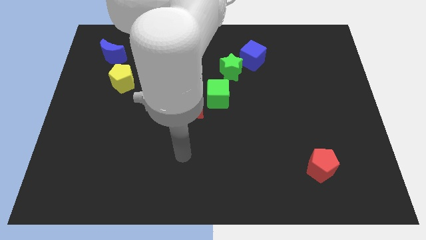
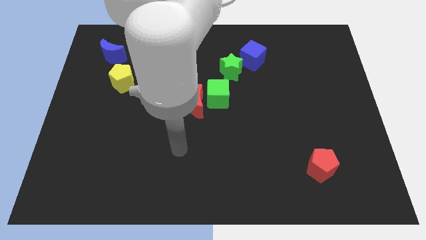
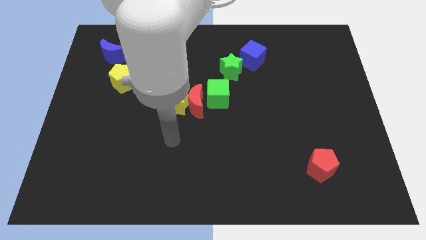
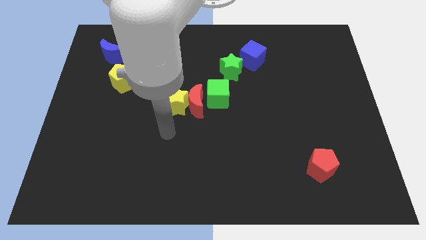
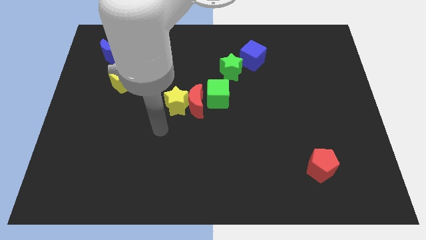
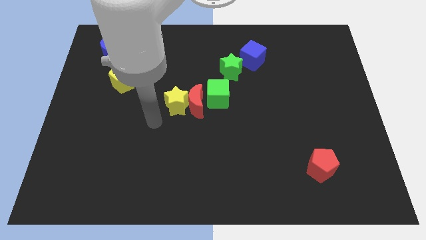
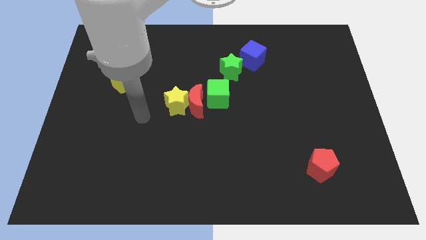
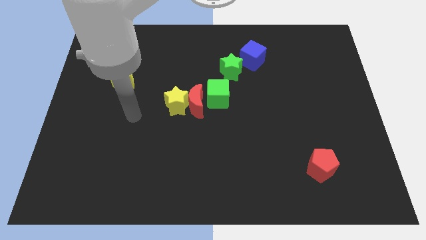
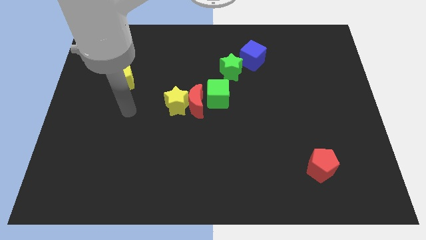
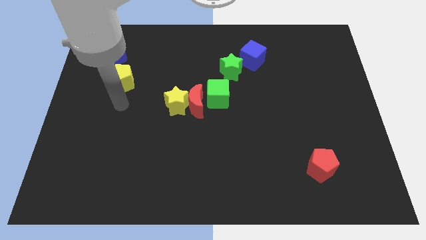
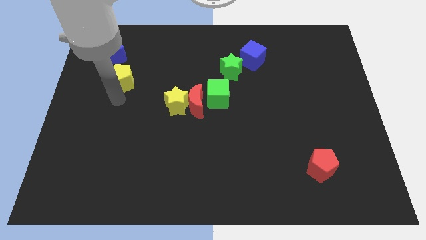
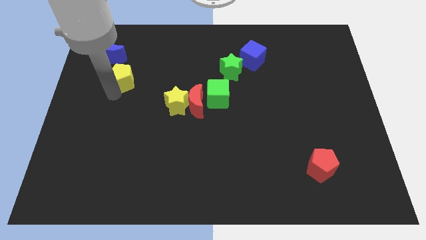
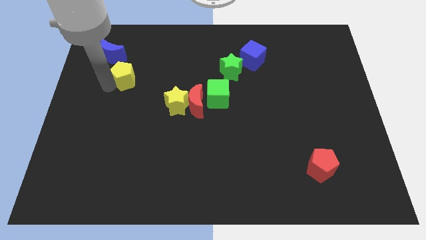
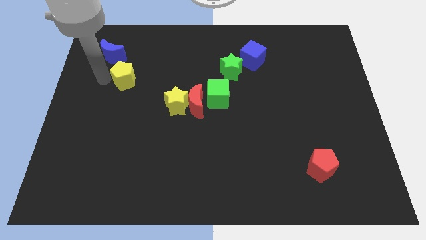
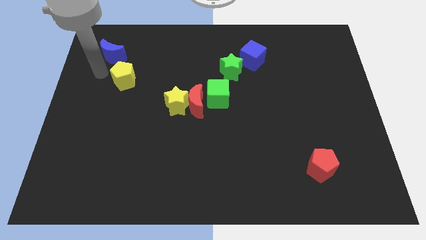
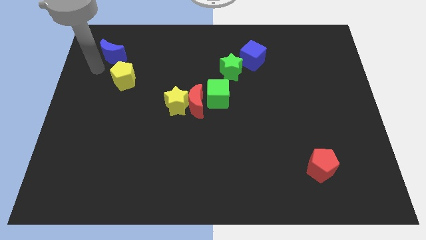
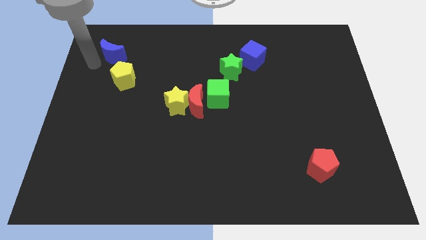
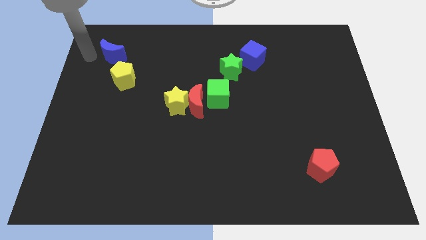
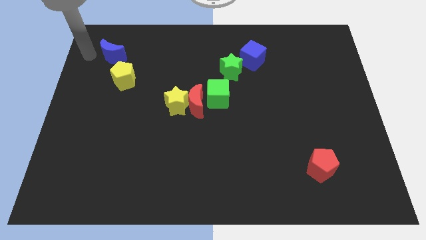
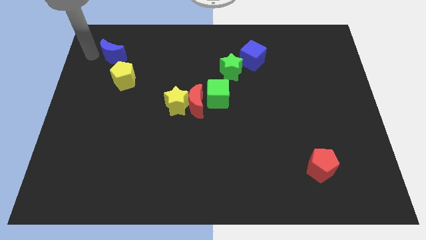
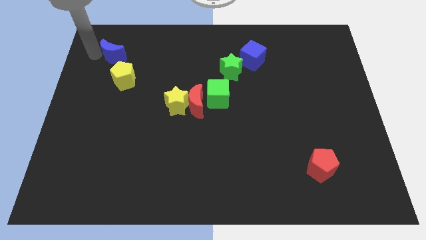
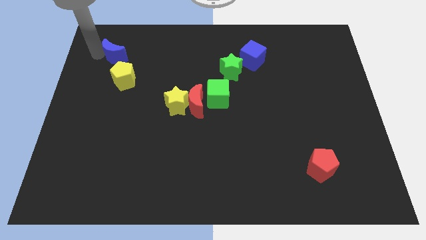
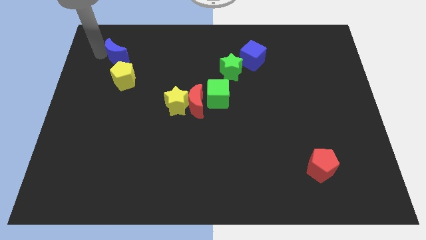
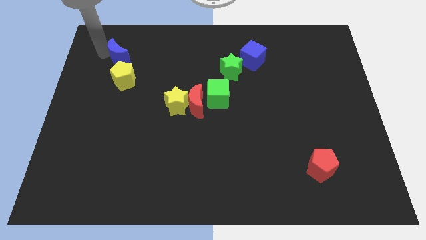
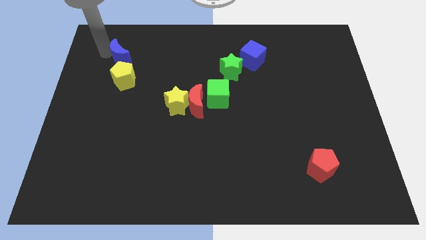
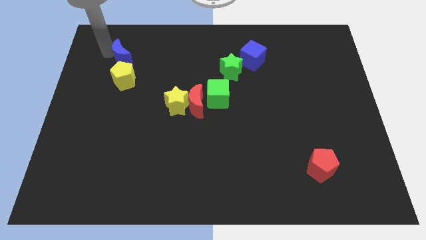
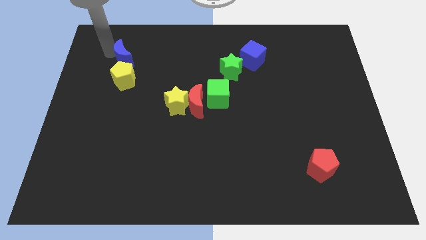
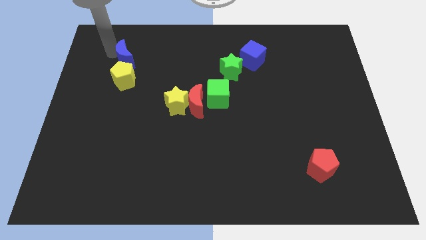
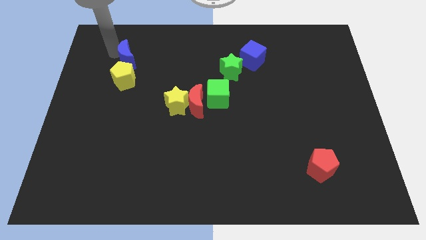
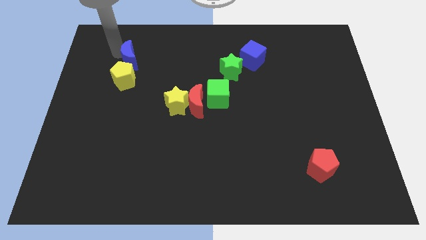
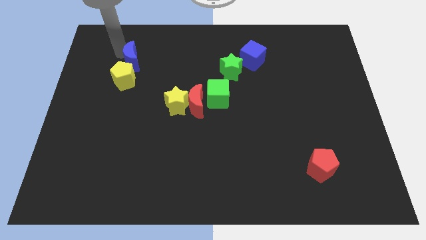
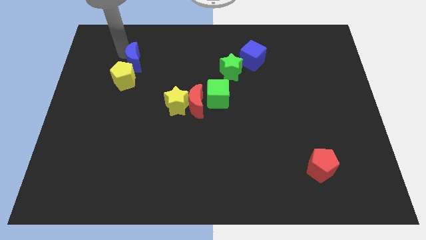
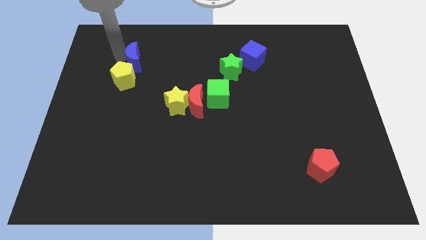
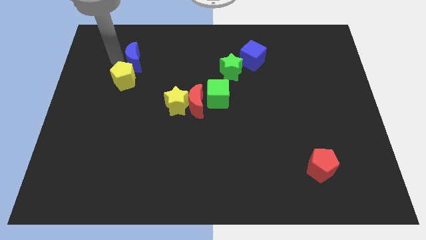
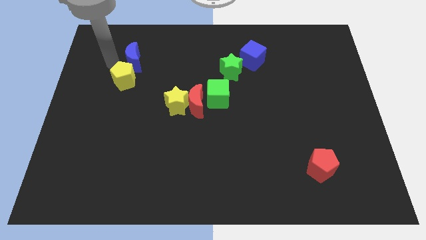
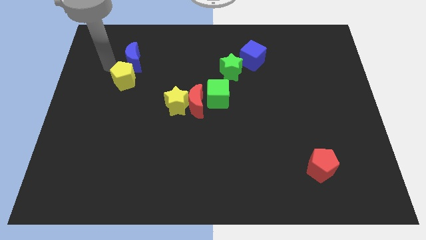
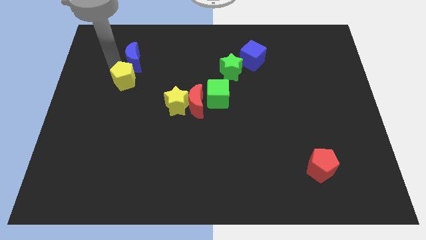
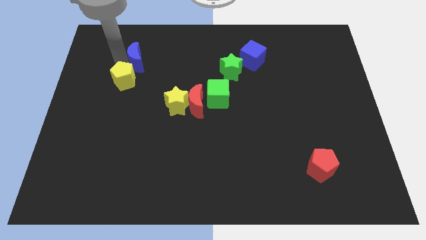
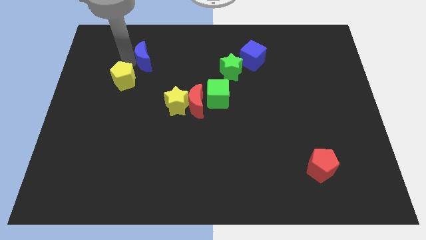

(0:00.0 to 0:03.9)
push the blue moon to the right a bit

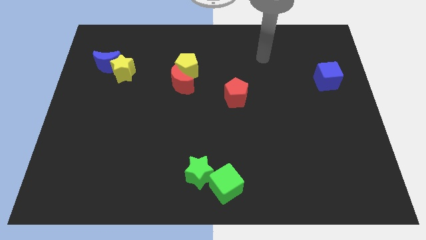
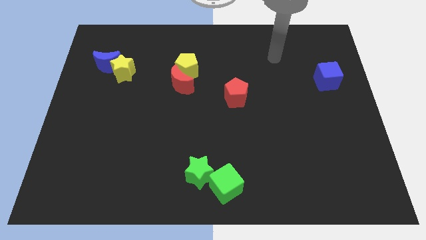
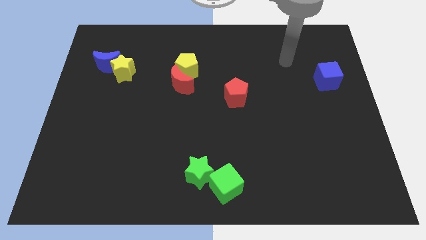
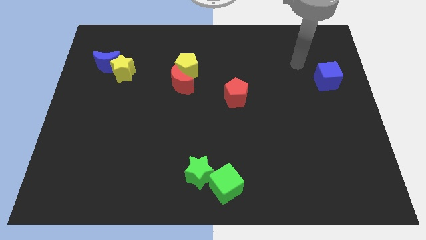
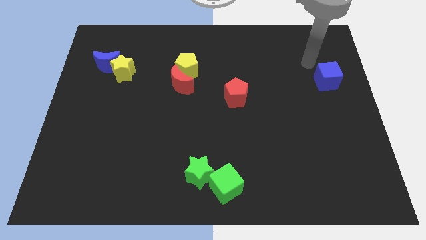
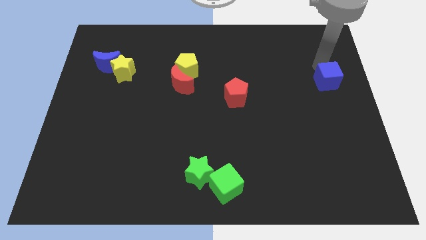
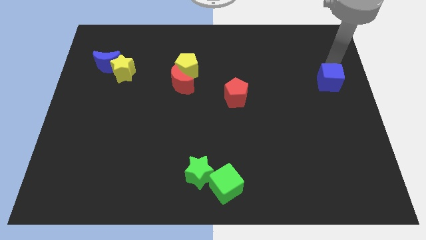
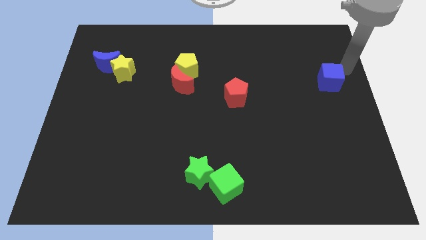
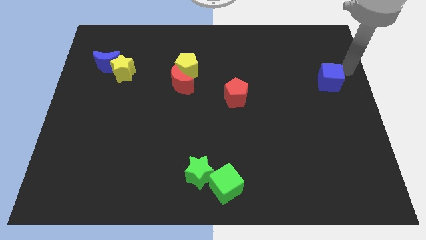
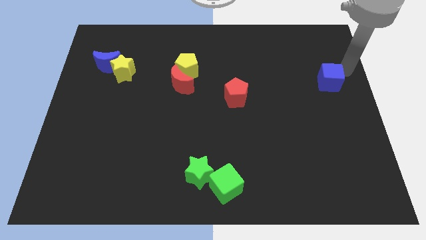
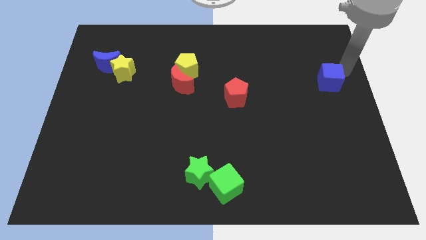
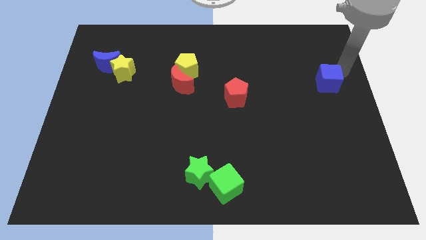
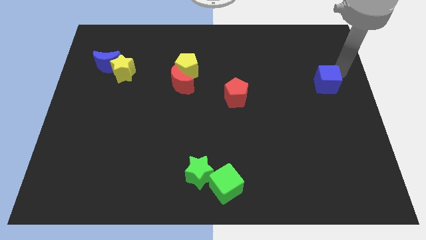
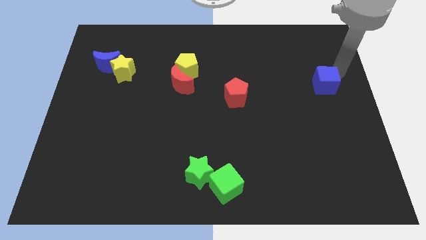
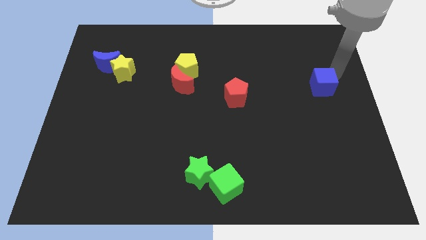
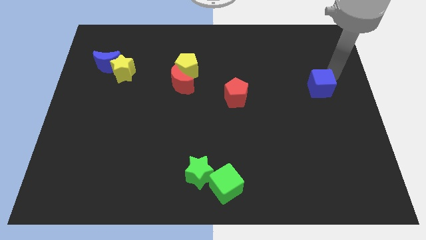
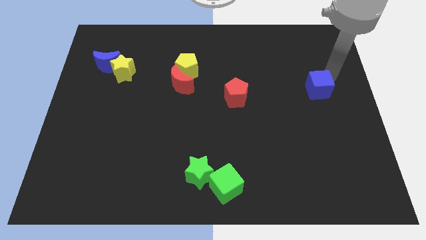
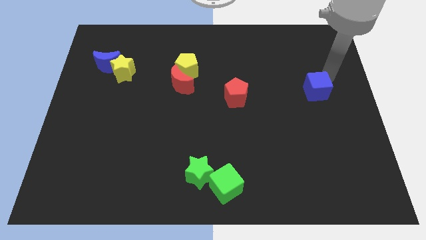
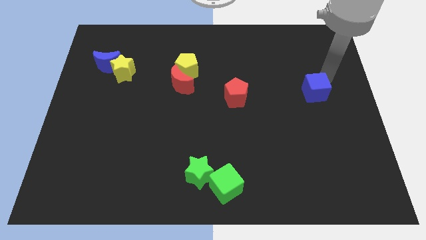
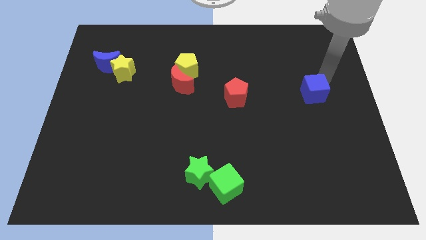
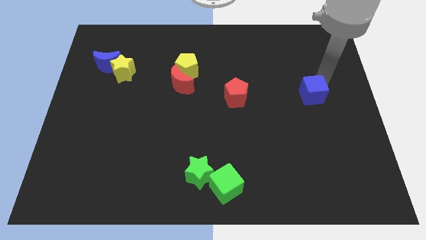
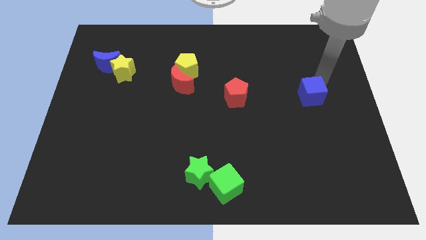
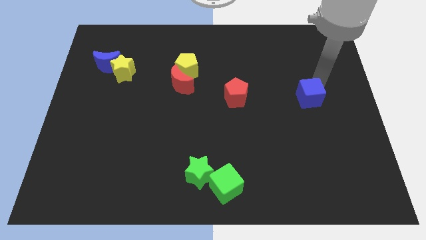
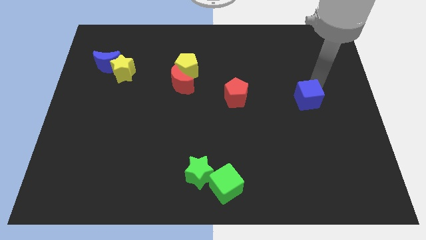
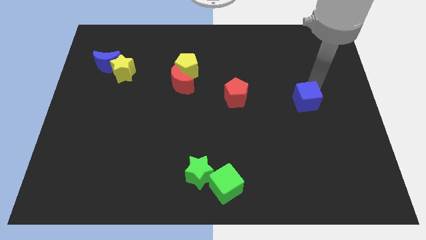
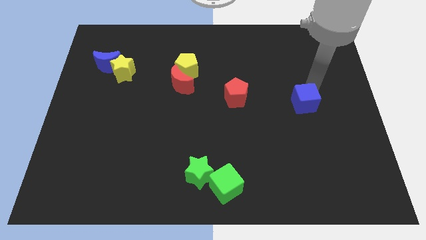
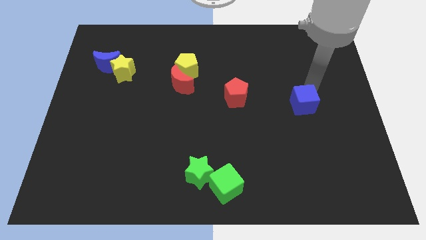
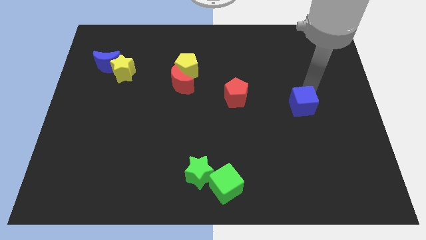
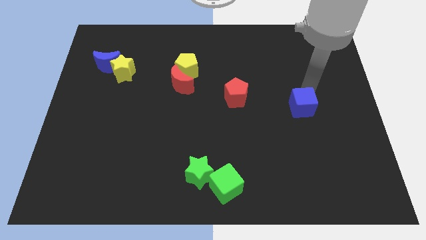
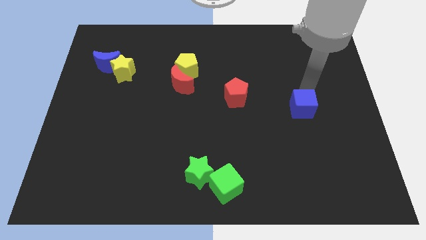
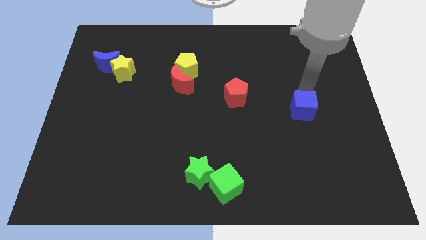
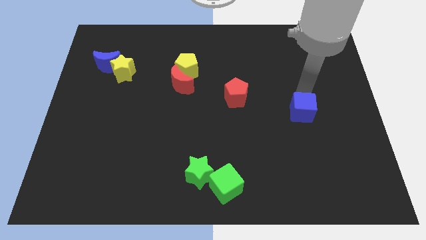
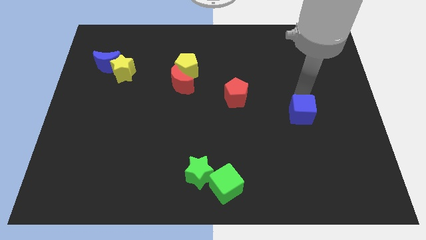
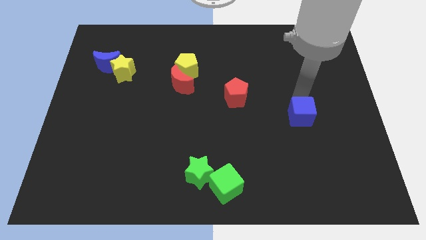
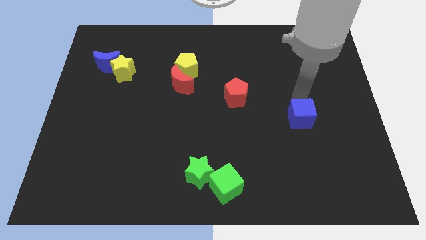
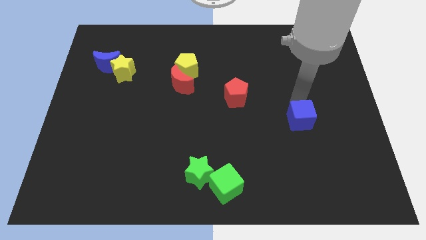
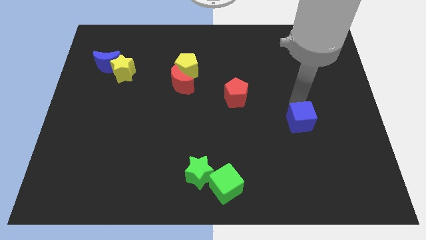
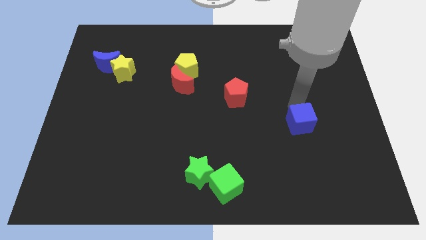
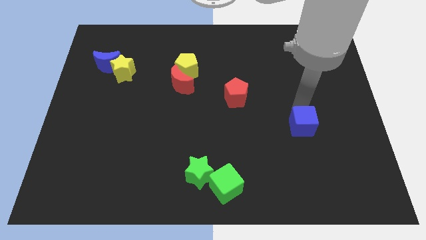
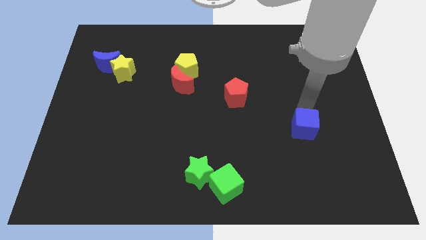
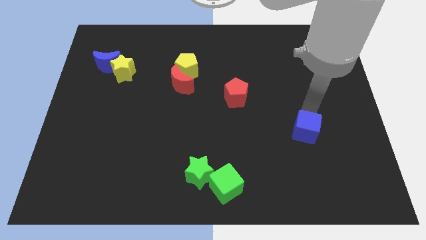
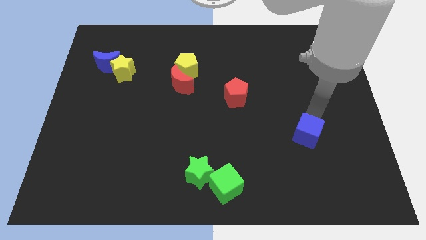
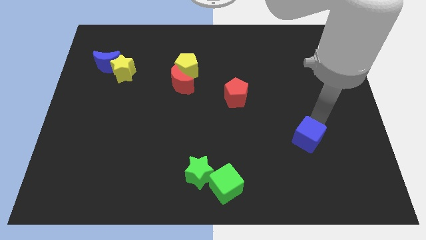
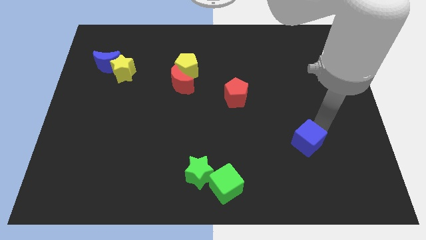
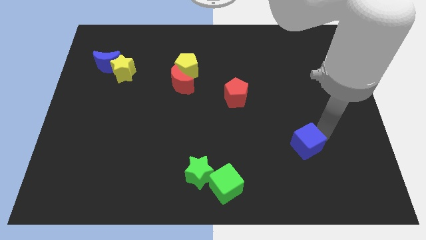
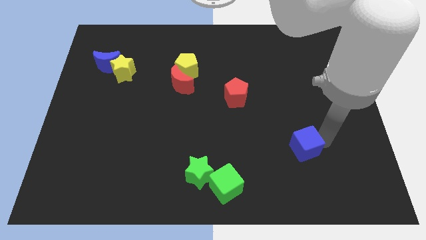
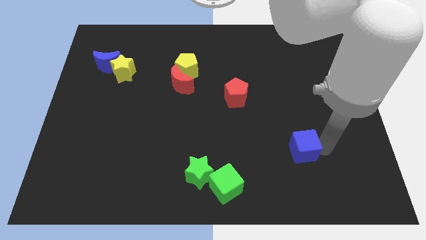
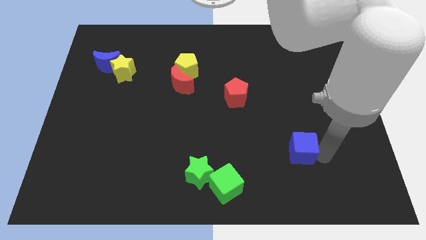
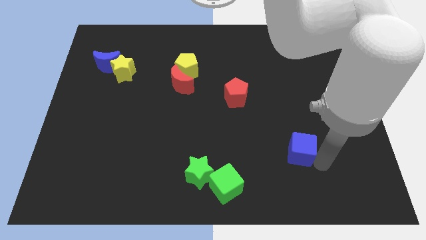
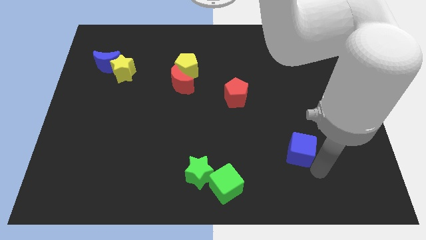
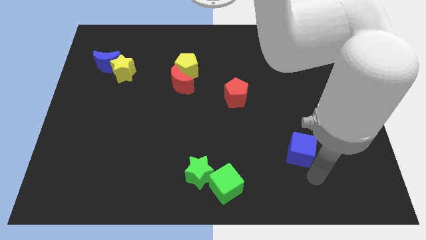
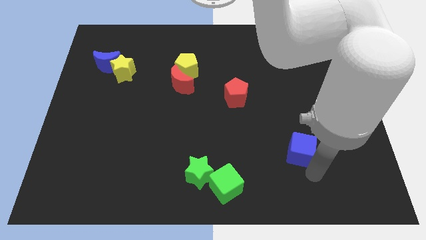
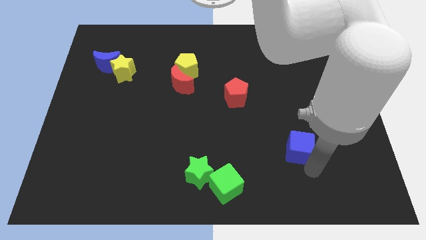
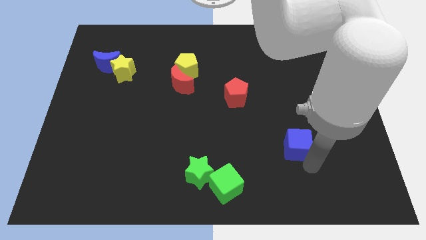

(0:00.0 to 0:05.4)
push the blue cube down and to the left
